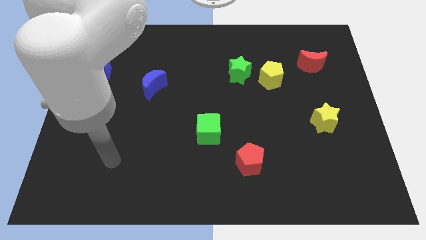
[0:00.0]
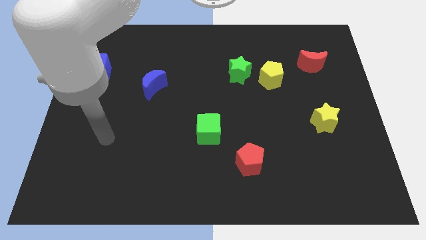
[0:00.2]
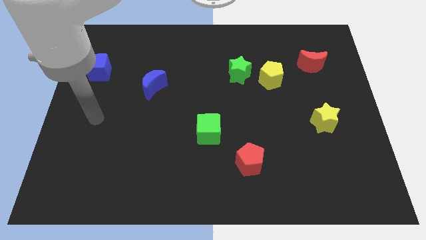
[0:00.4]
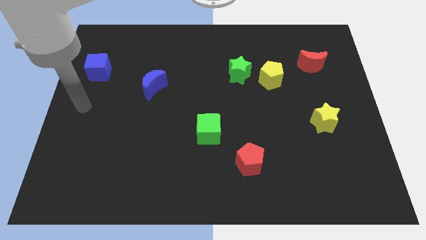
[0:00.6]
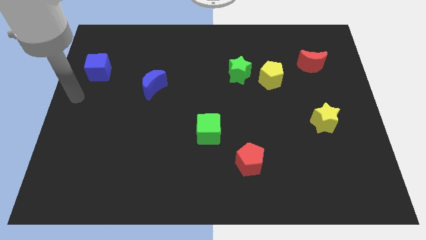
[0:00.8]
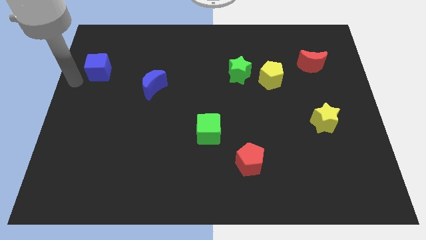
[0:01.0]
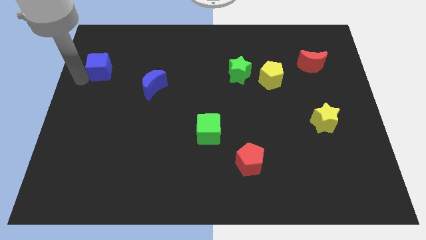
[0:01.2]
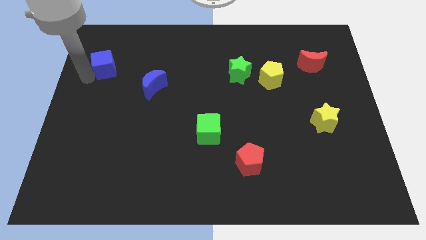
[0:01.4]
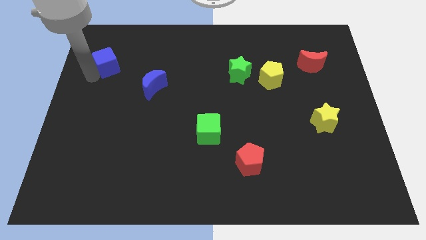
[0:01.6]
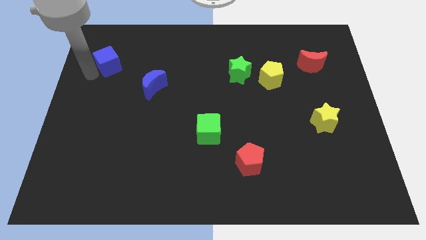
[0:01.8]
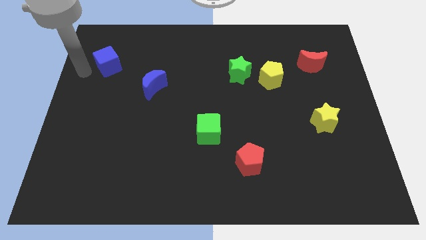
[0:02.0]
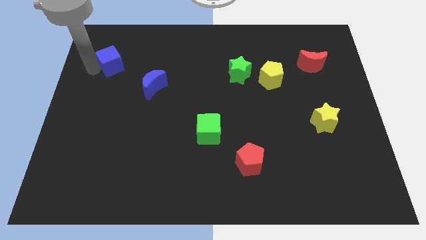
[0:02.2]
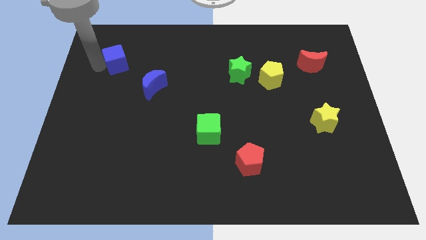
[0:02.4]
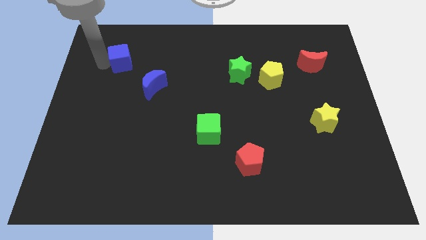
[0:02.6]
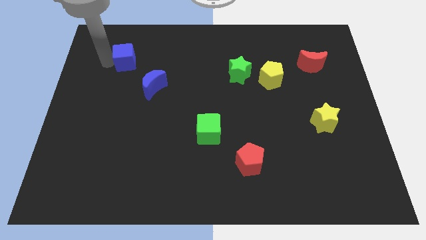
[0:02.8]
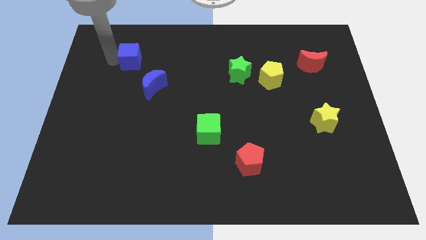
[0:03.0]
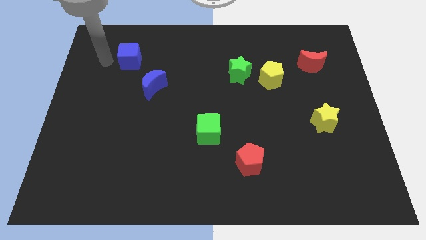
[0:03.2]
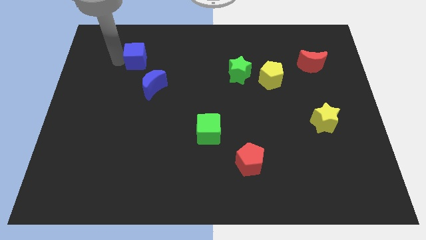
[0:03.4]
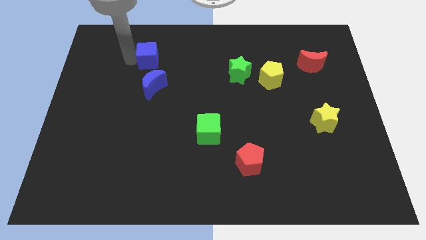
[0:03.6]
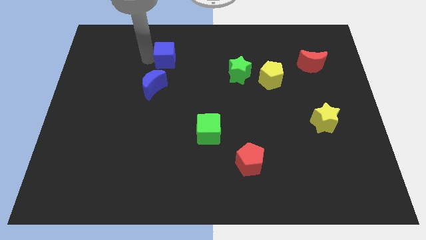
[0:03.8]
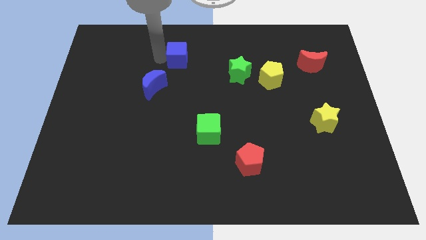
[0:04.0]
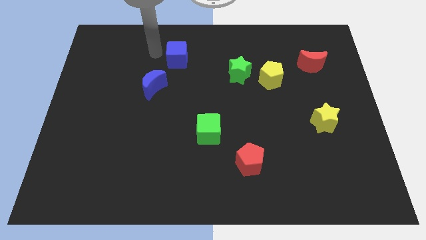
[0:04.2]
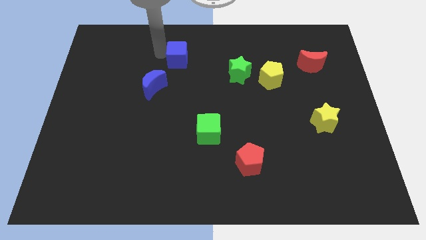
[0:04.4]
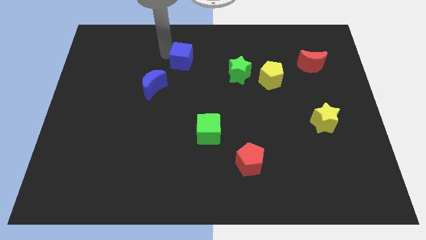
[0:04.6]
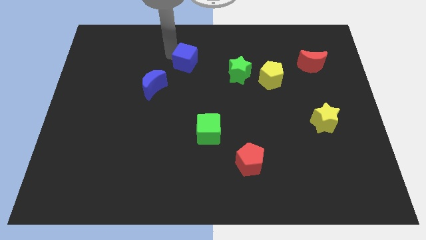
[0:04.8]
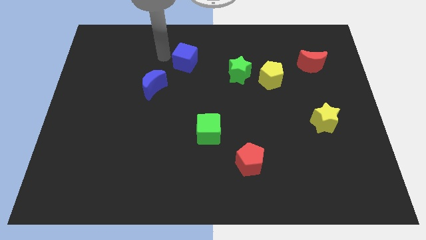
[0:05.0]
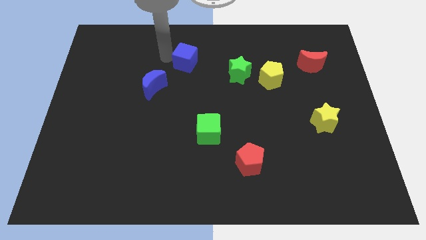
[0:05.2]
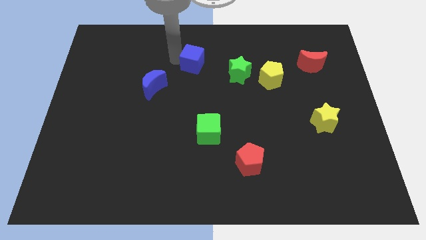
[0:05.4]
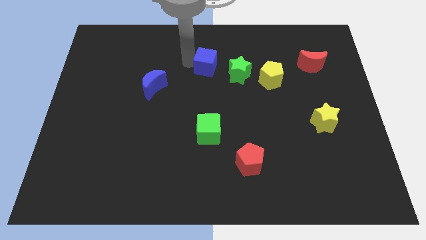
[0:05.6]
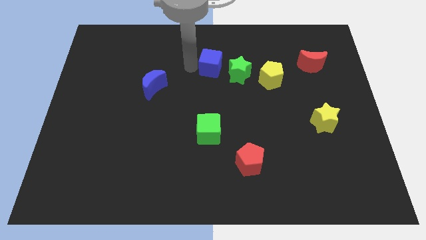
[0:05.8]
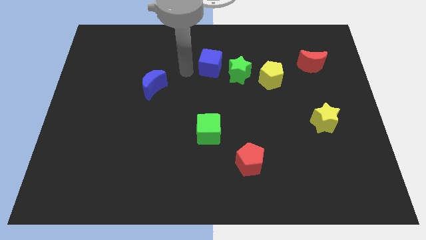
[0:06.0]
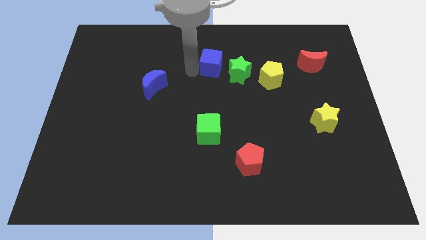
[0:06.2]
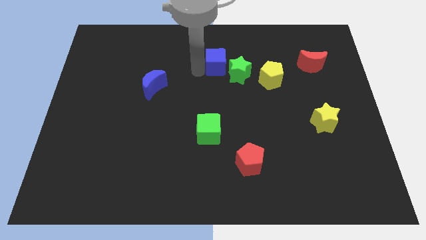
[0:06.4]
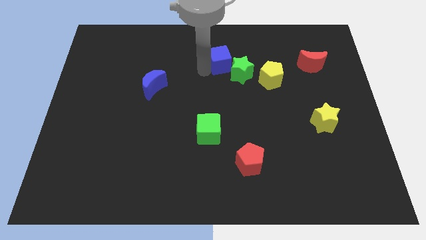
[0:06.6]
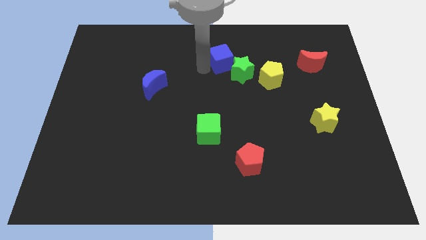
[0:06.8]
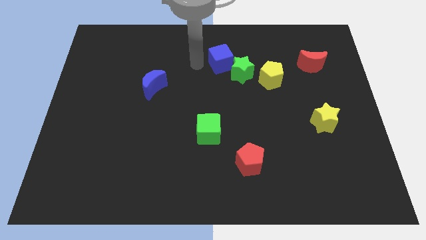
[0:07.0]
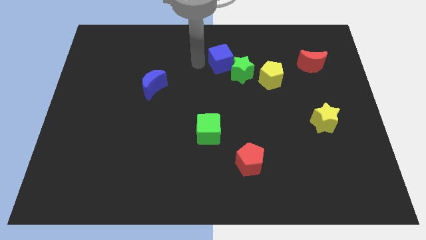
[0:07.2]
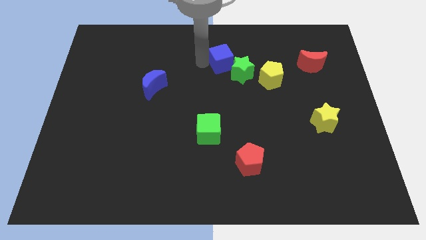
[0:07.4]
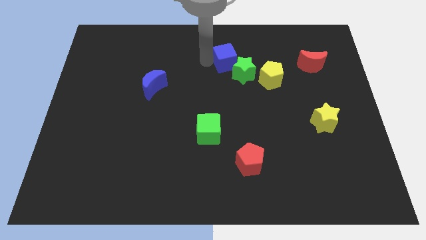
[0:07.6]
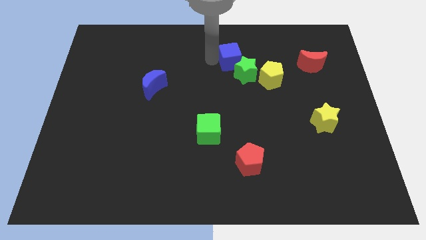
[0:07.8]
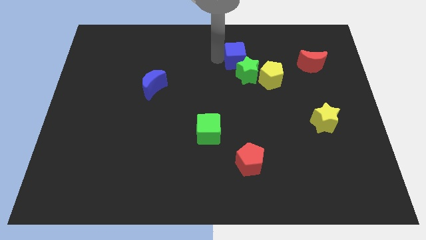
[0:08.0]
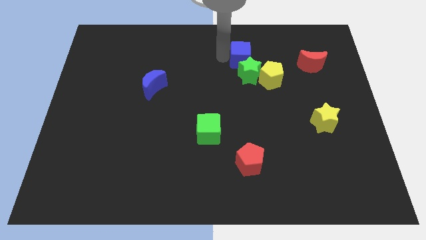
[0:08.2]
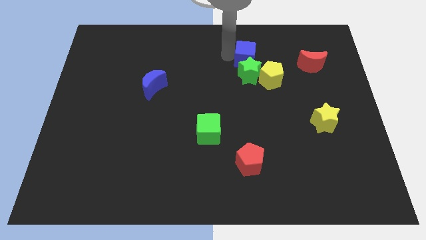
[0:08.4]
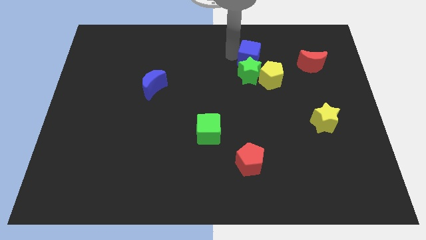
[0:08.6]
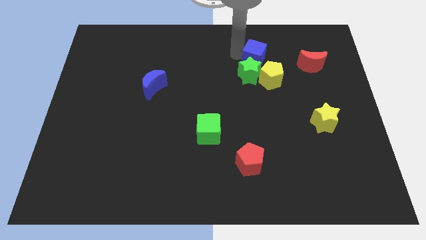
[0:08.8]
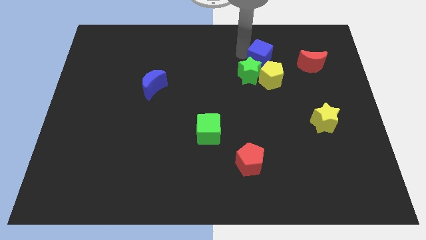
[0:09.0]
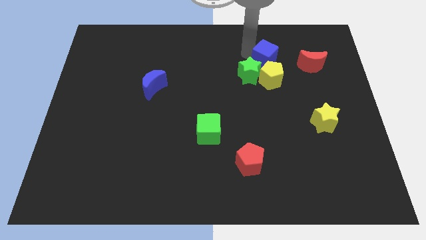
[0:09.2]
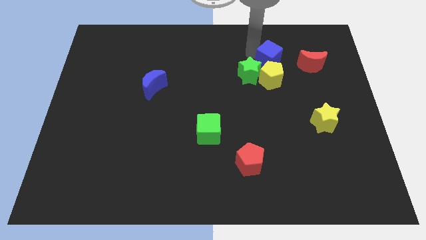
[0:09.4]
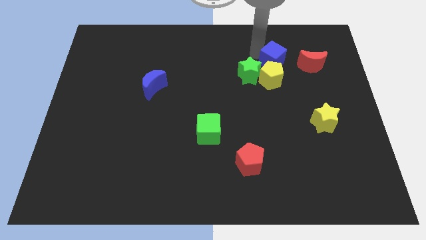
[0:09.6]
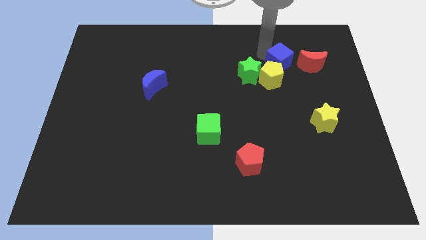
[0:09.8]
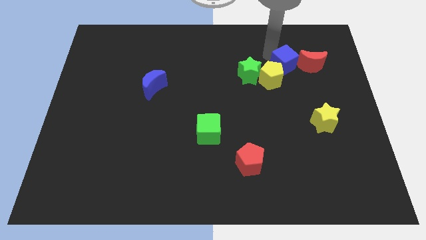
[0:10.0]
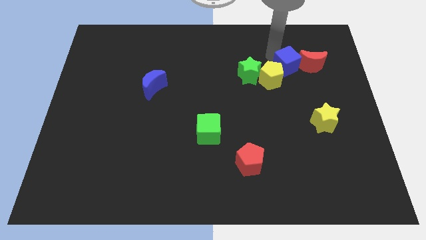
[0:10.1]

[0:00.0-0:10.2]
slide the blue cube to the bottom left side of the red moon

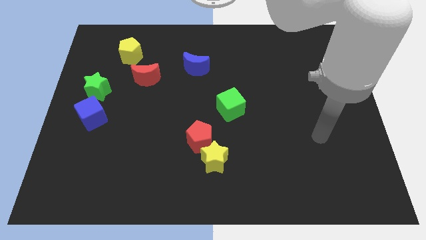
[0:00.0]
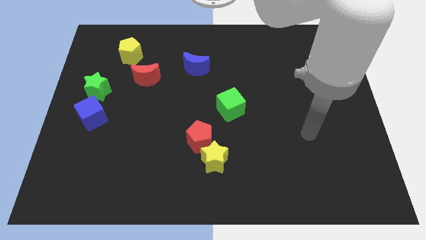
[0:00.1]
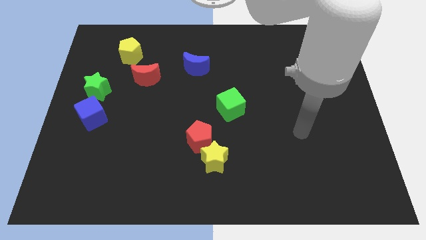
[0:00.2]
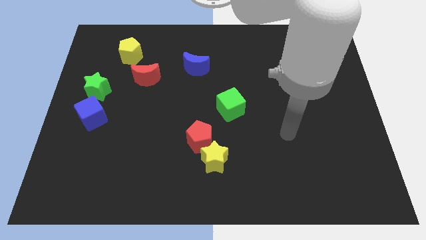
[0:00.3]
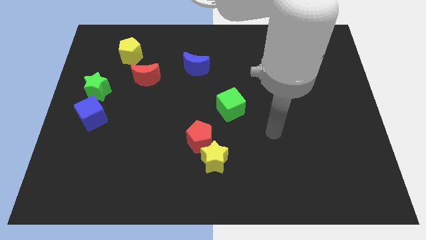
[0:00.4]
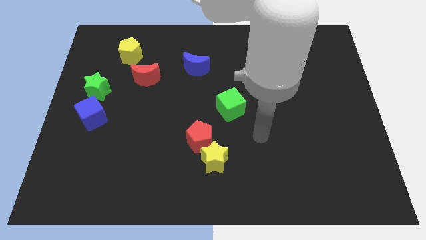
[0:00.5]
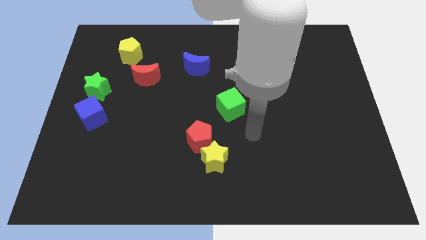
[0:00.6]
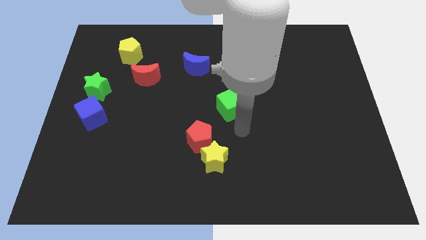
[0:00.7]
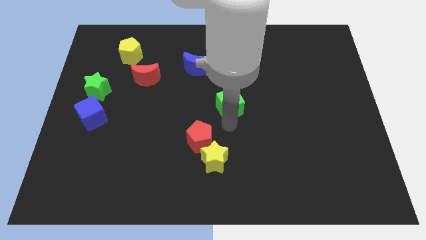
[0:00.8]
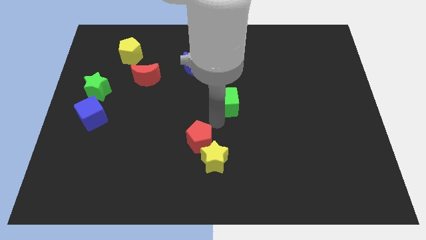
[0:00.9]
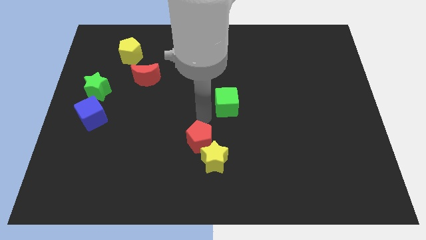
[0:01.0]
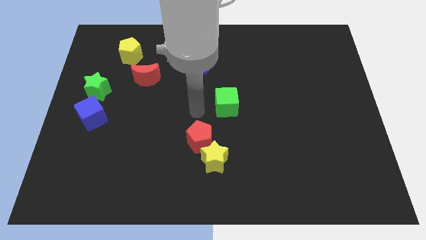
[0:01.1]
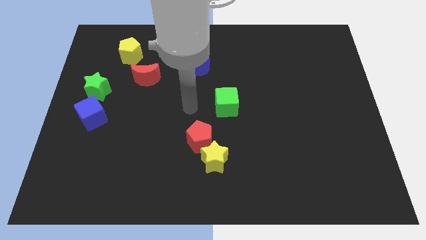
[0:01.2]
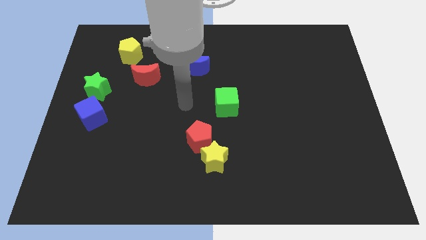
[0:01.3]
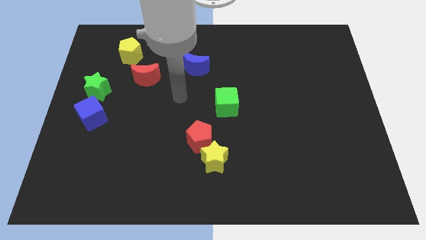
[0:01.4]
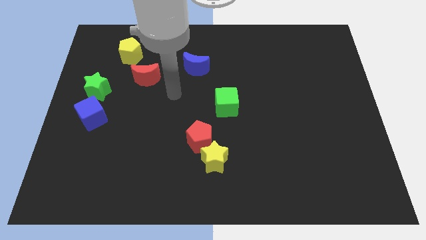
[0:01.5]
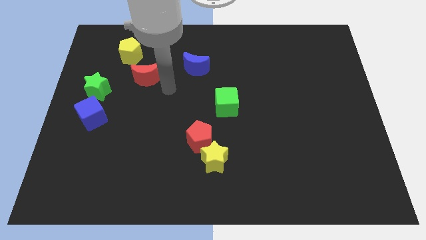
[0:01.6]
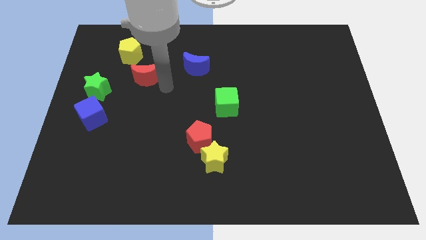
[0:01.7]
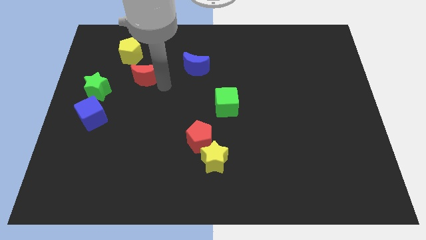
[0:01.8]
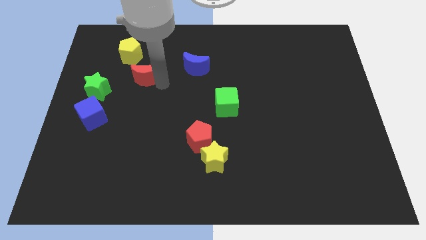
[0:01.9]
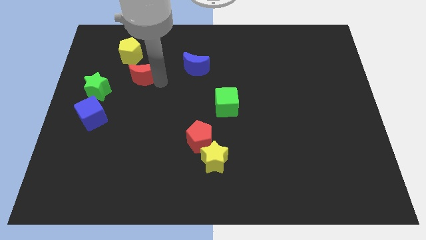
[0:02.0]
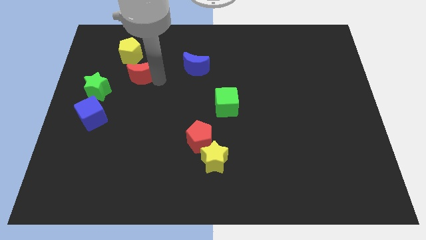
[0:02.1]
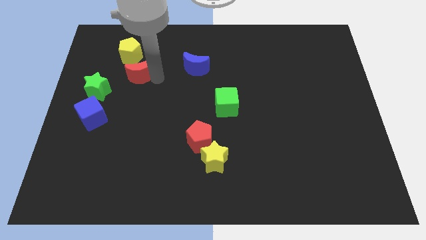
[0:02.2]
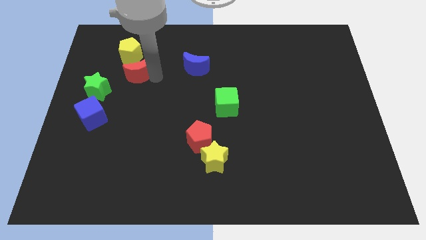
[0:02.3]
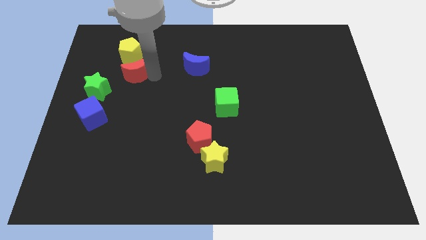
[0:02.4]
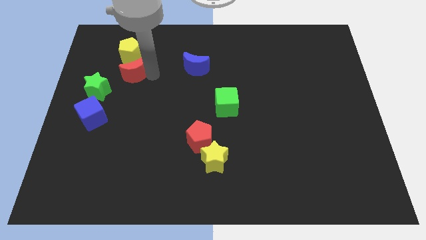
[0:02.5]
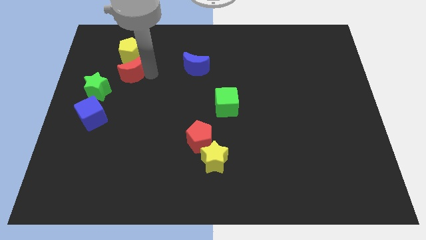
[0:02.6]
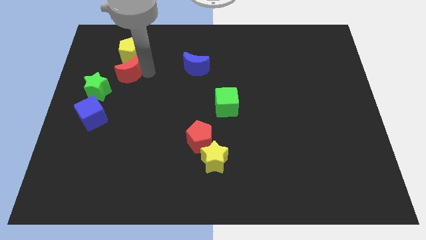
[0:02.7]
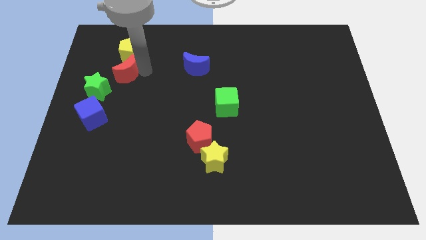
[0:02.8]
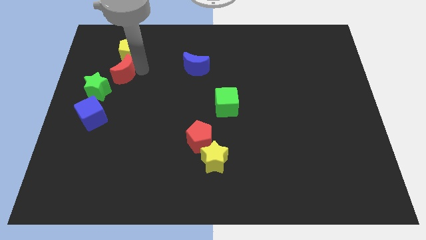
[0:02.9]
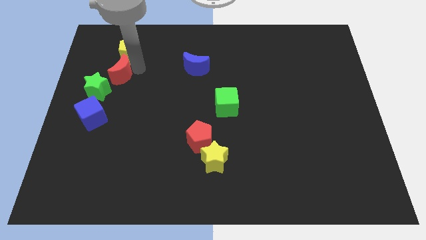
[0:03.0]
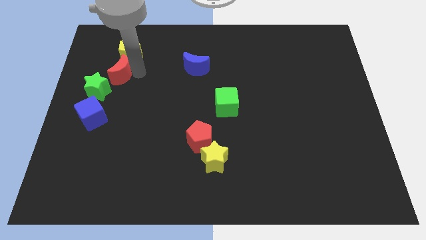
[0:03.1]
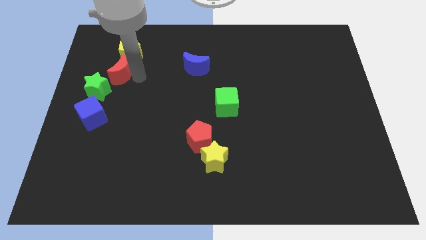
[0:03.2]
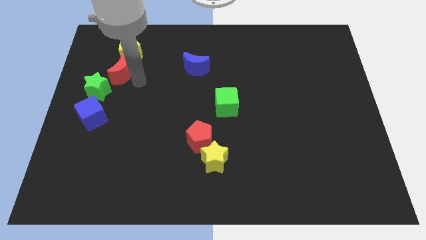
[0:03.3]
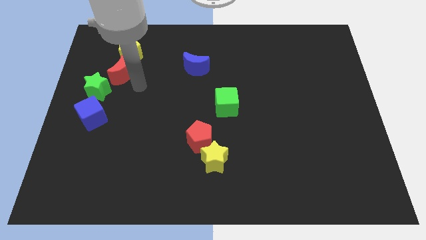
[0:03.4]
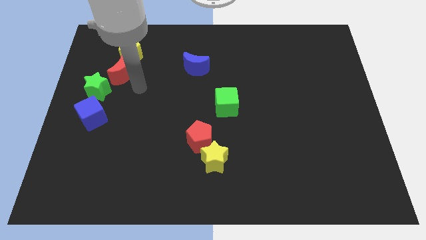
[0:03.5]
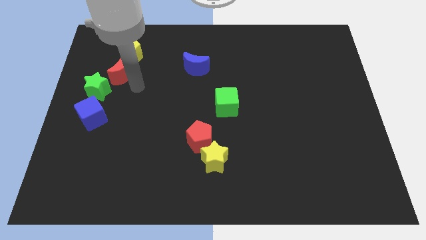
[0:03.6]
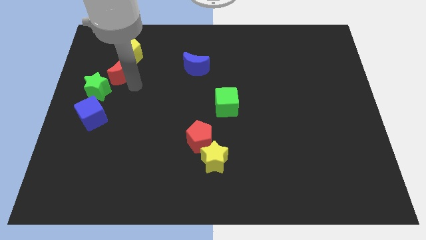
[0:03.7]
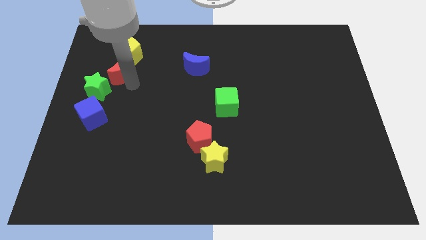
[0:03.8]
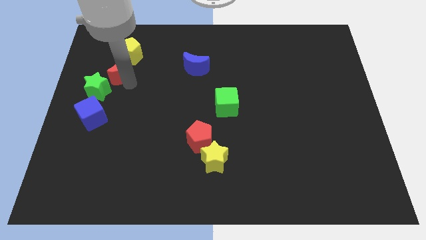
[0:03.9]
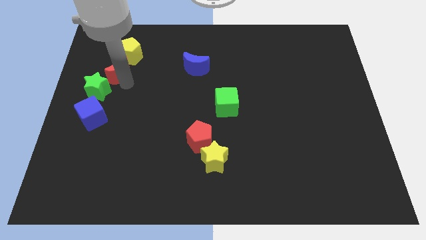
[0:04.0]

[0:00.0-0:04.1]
move the red moon to the top of the green star
